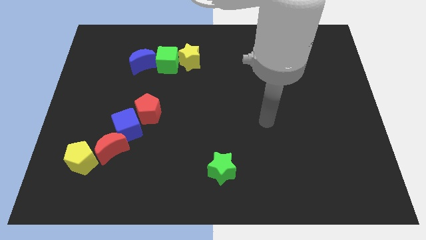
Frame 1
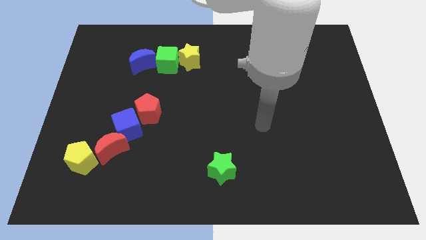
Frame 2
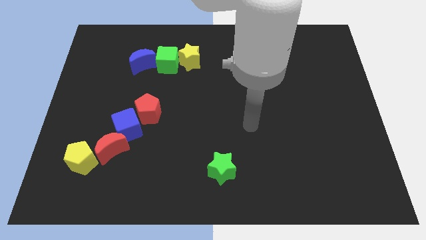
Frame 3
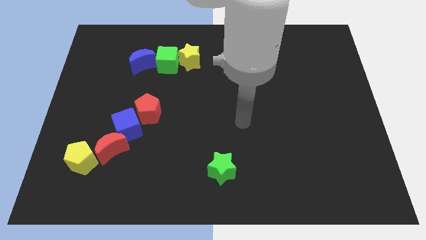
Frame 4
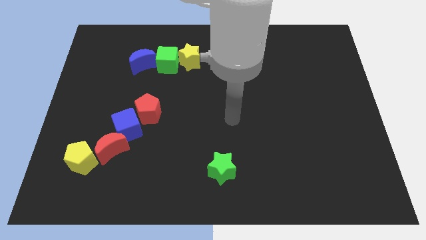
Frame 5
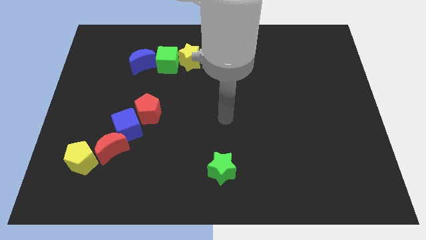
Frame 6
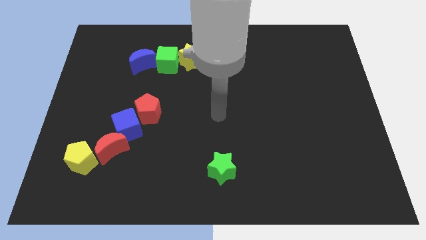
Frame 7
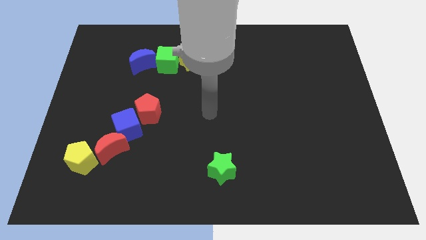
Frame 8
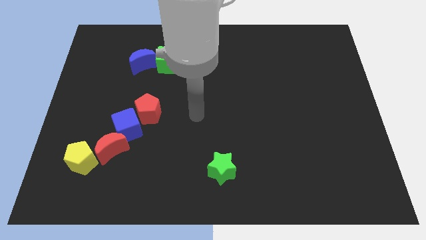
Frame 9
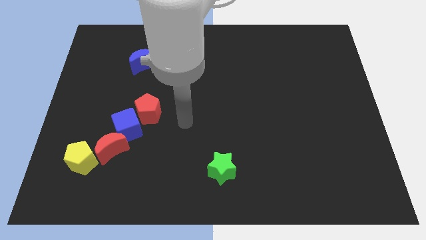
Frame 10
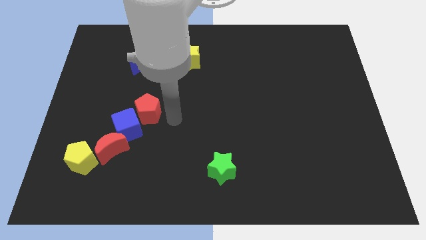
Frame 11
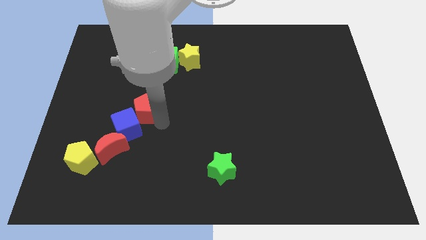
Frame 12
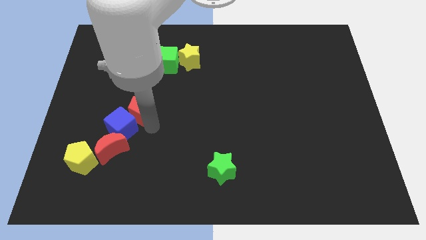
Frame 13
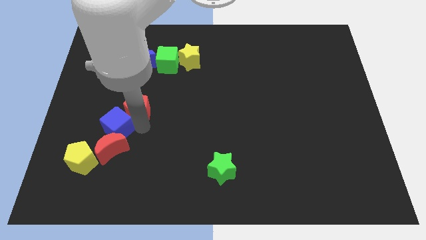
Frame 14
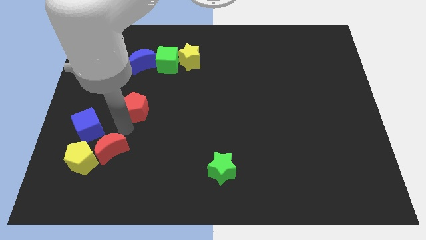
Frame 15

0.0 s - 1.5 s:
separate the red pentagon from the blue cube

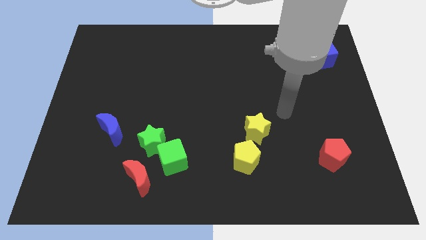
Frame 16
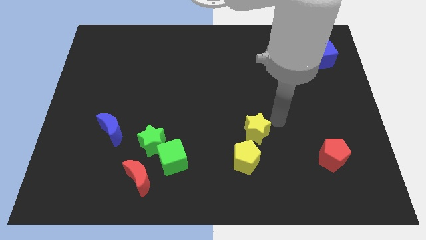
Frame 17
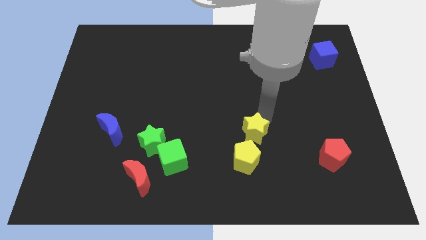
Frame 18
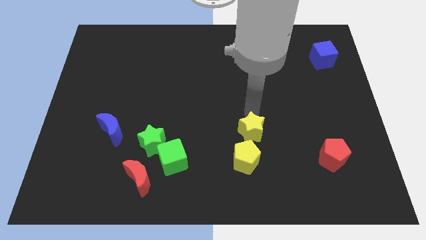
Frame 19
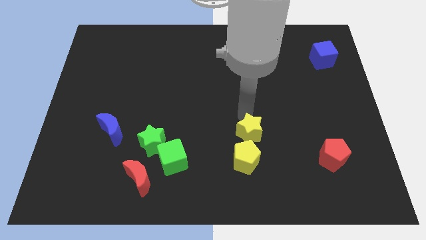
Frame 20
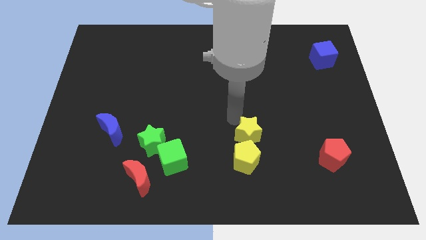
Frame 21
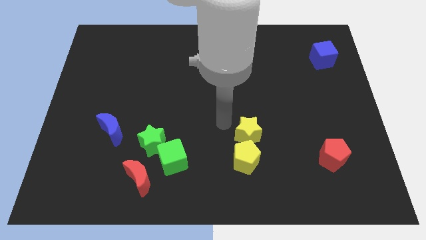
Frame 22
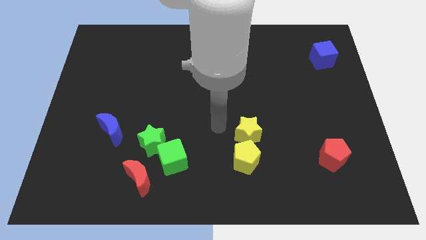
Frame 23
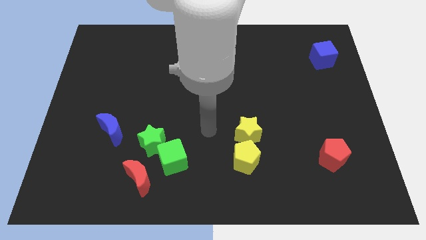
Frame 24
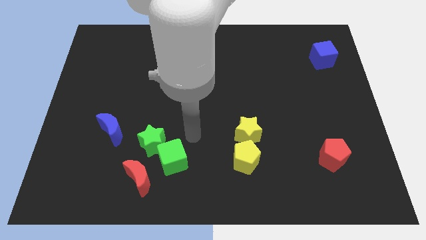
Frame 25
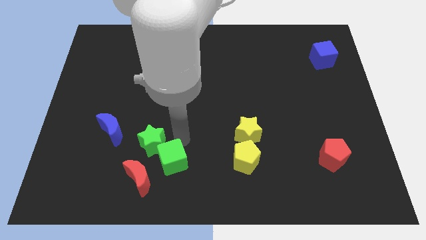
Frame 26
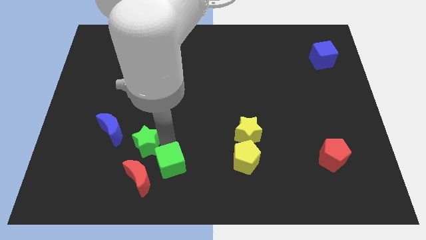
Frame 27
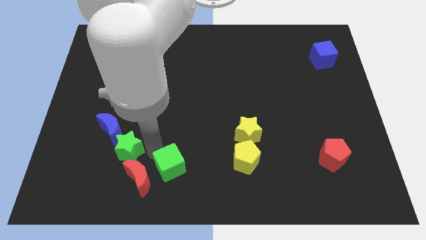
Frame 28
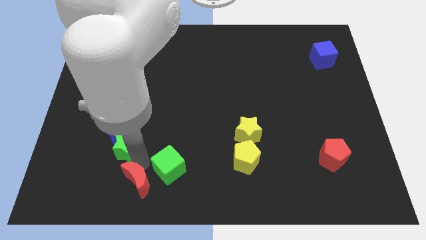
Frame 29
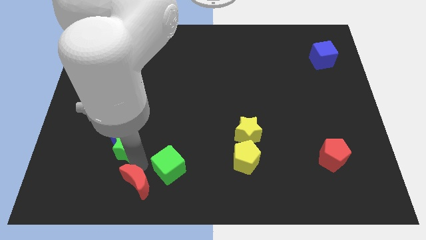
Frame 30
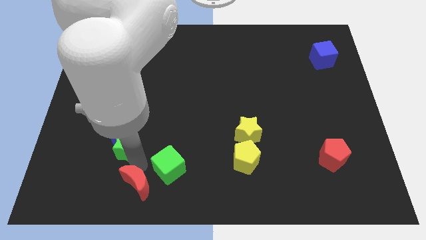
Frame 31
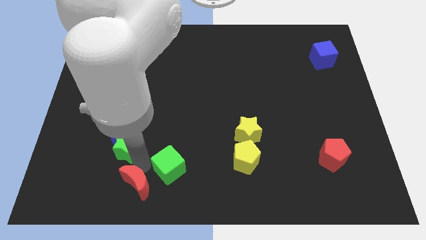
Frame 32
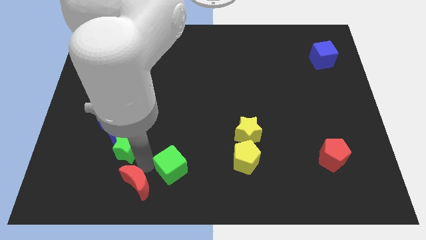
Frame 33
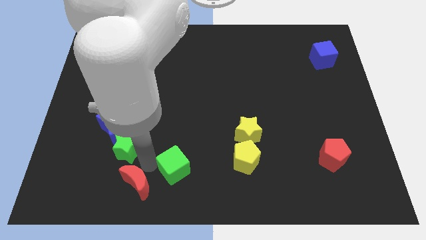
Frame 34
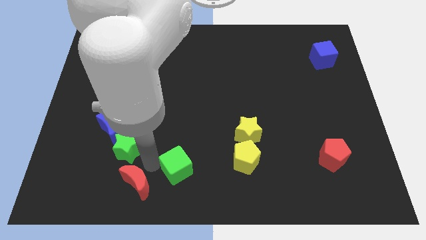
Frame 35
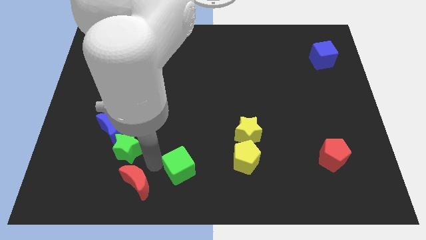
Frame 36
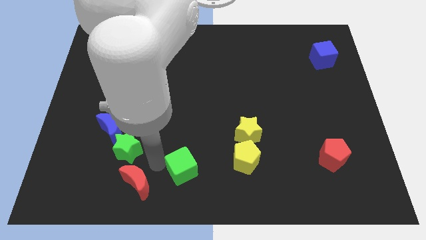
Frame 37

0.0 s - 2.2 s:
move the green cube away from the green star and red moon

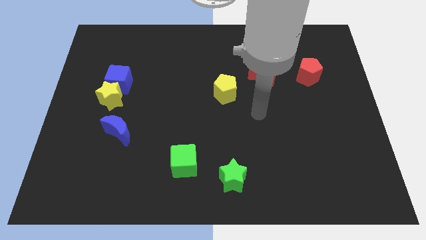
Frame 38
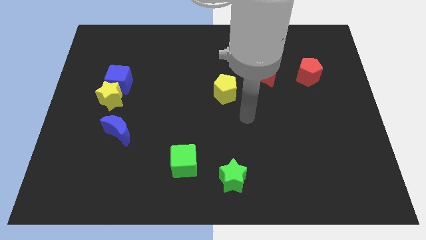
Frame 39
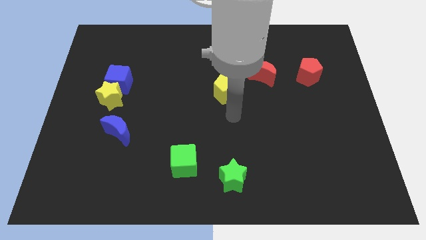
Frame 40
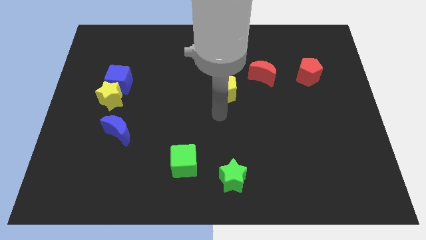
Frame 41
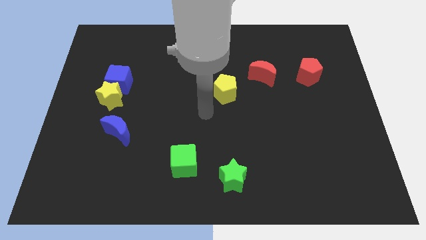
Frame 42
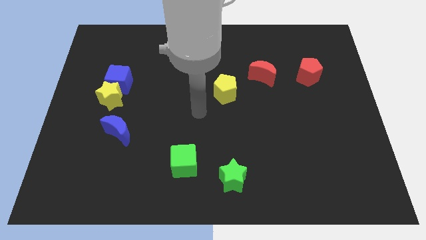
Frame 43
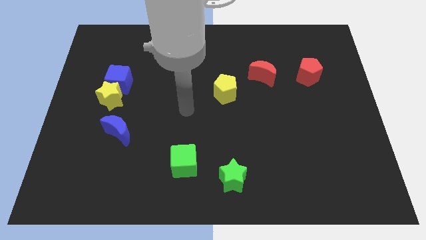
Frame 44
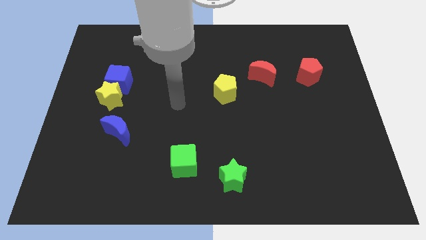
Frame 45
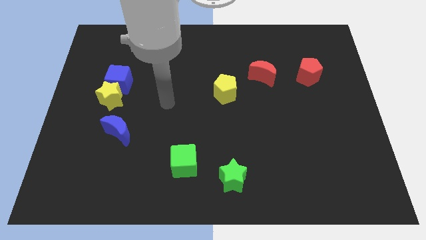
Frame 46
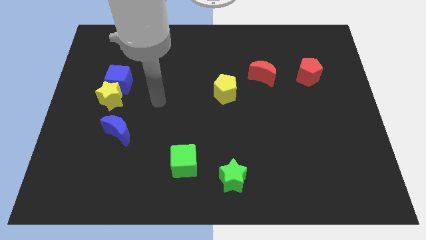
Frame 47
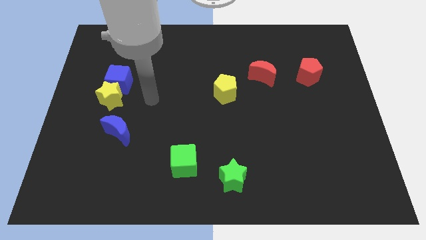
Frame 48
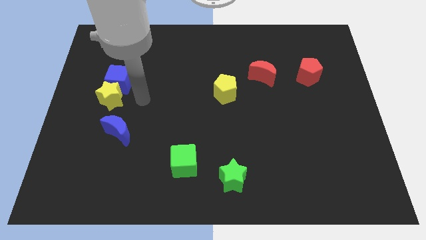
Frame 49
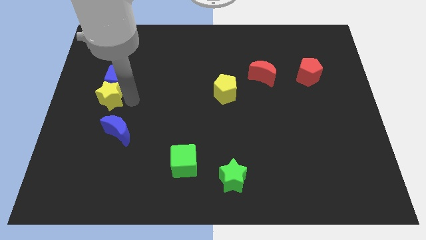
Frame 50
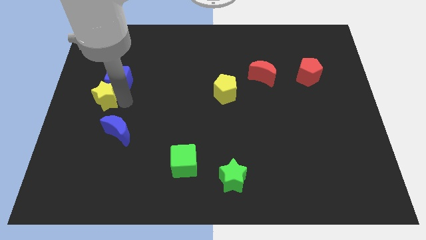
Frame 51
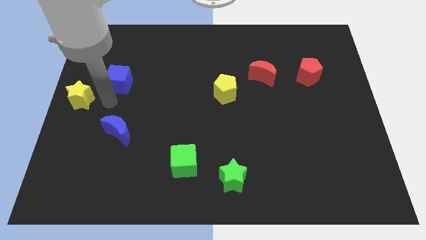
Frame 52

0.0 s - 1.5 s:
separate the blue cube from the yellow star

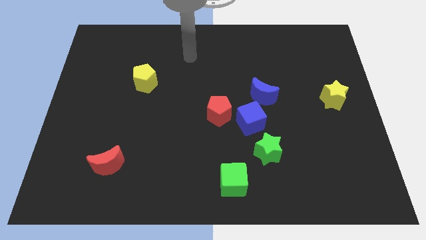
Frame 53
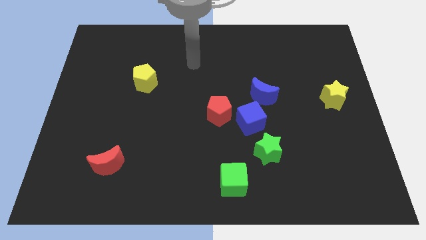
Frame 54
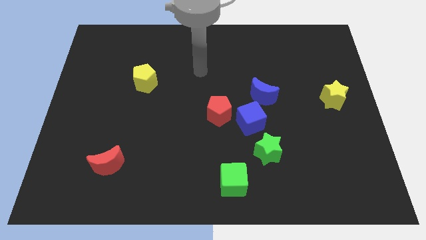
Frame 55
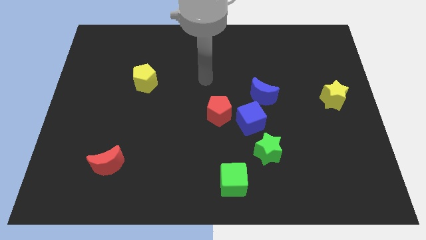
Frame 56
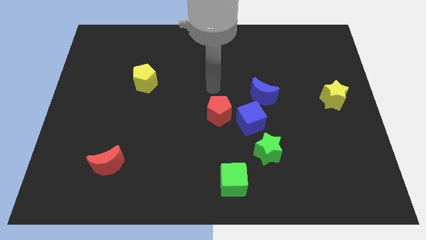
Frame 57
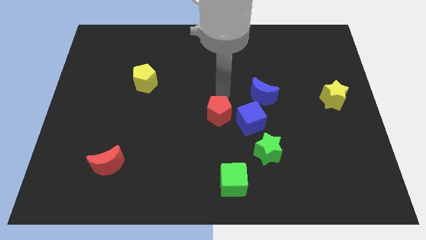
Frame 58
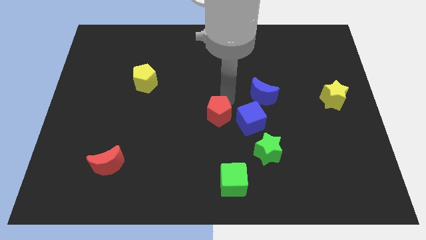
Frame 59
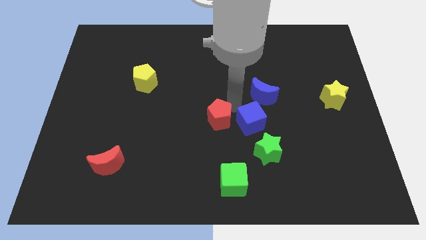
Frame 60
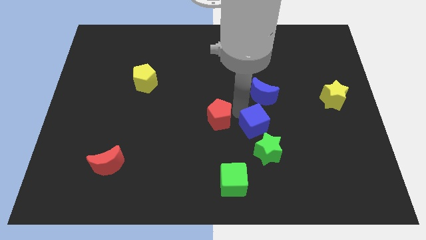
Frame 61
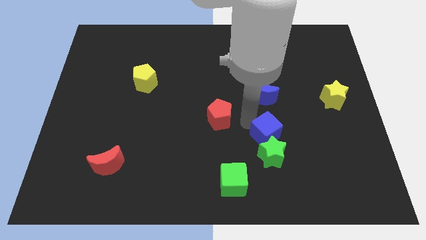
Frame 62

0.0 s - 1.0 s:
move the red pentagon away from the blue cube

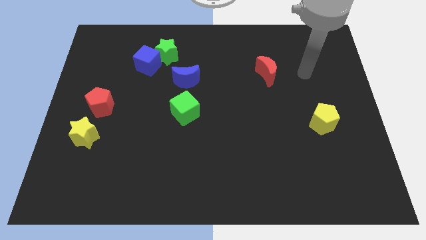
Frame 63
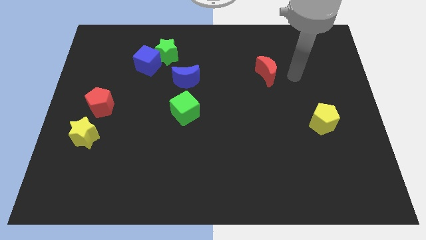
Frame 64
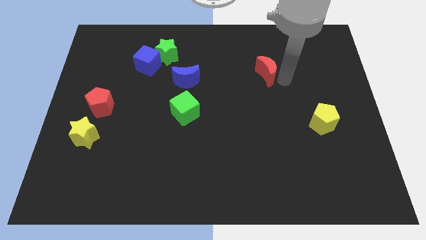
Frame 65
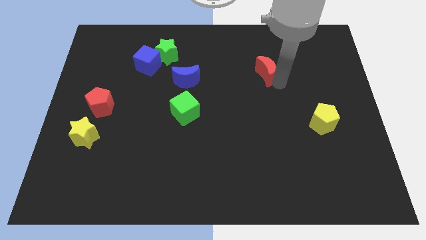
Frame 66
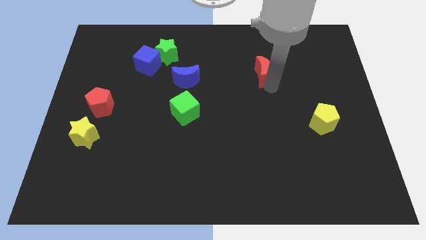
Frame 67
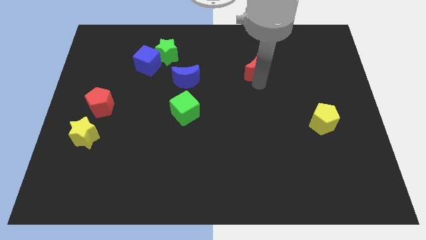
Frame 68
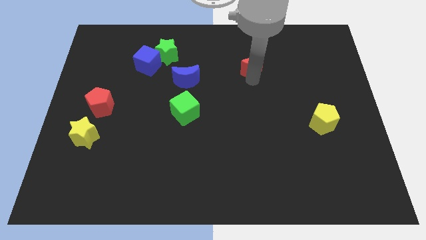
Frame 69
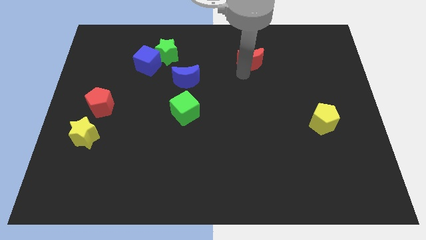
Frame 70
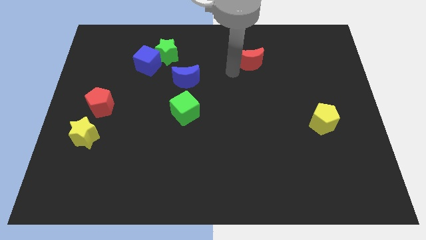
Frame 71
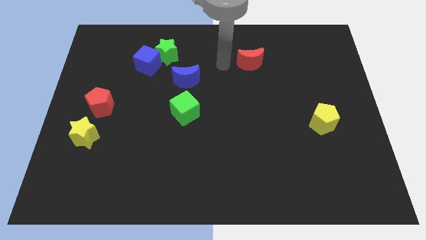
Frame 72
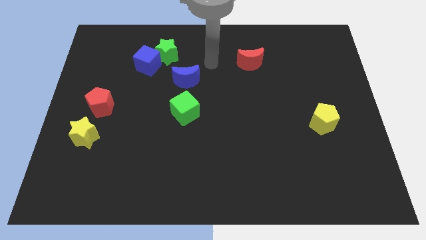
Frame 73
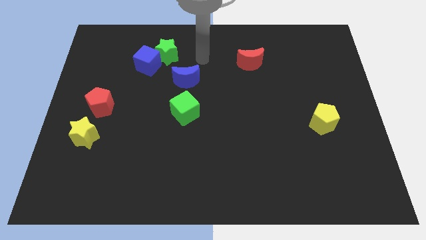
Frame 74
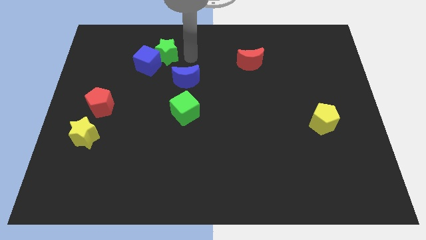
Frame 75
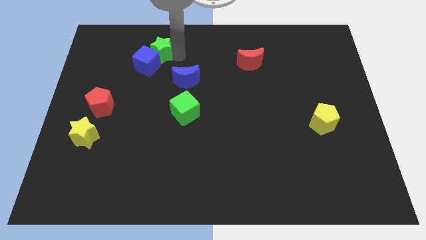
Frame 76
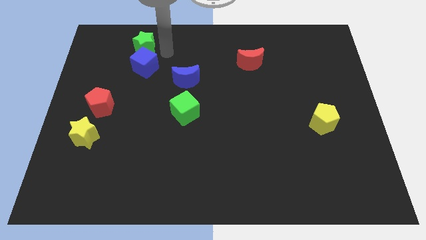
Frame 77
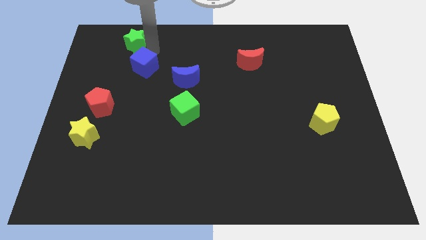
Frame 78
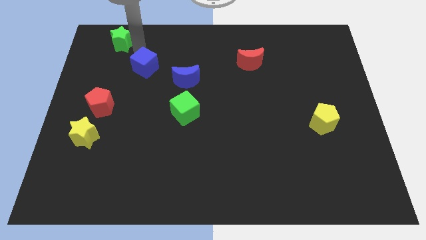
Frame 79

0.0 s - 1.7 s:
pull the blue cube apart from the green star

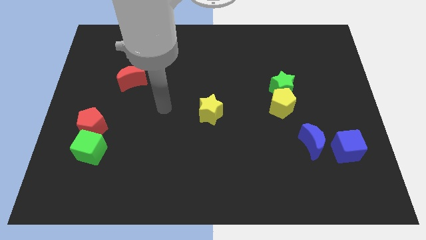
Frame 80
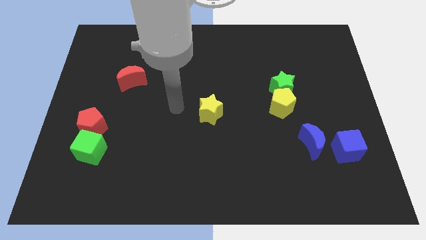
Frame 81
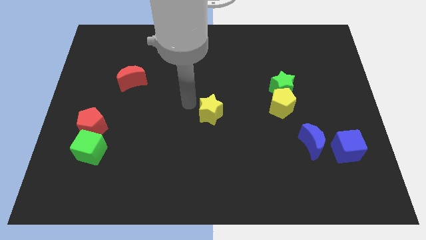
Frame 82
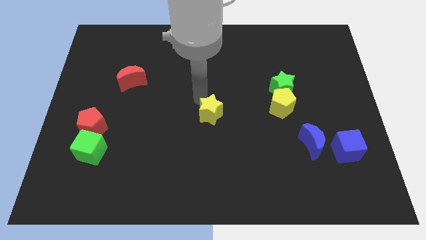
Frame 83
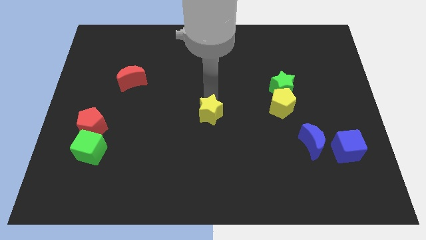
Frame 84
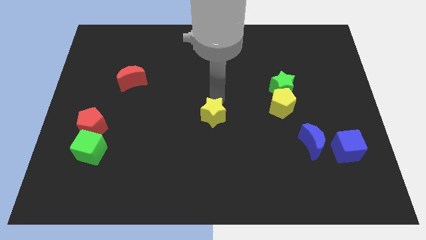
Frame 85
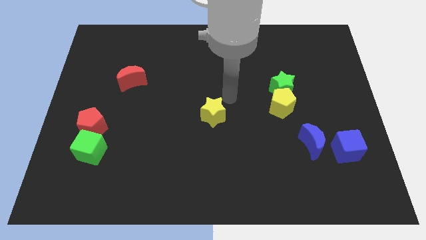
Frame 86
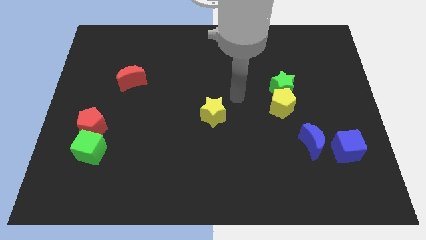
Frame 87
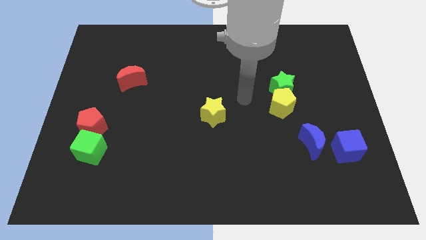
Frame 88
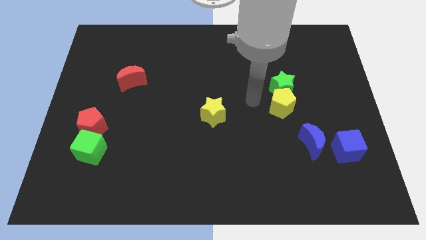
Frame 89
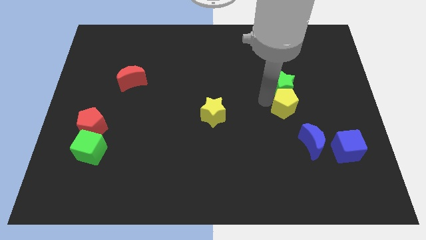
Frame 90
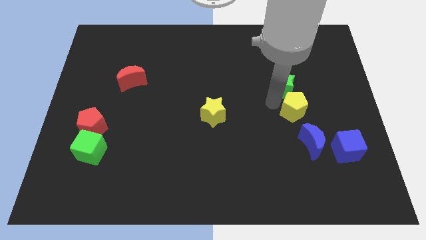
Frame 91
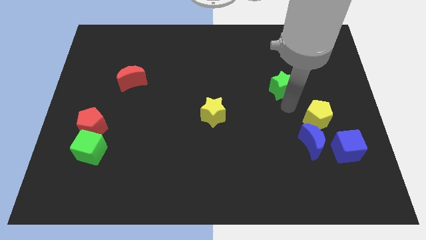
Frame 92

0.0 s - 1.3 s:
move the green star away from the yellow pentagon
